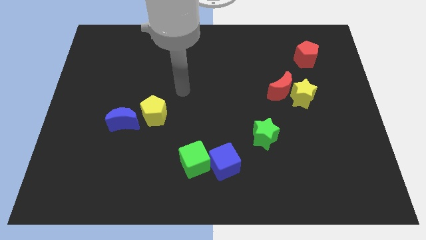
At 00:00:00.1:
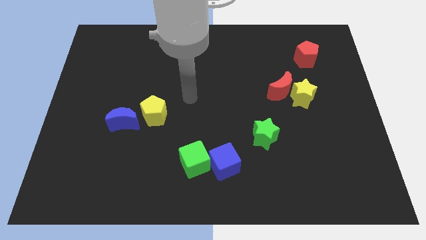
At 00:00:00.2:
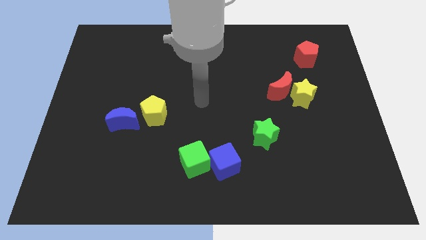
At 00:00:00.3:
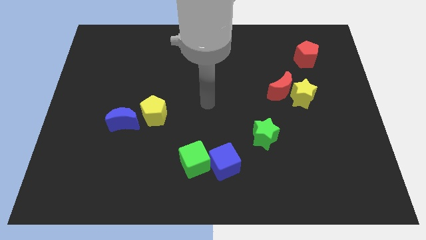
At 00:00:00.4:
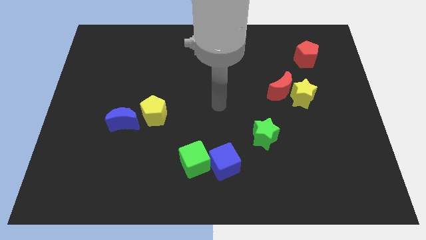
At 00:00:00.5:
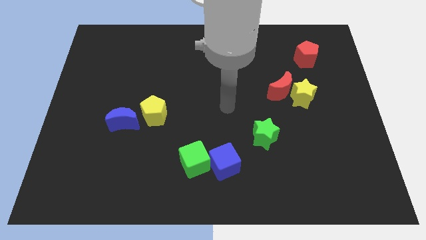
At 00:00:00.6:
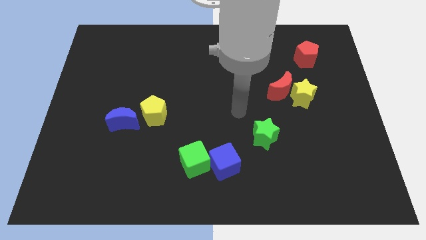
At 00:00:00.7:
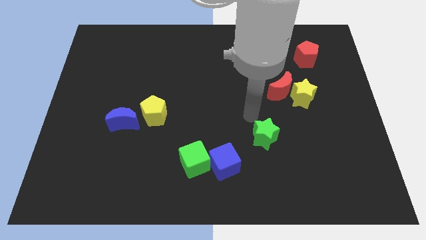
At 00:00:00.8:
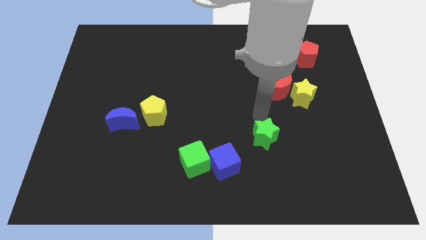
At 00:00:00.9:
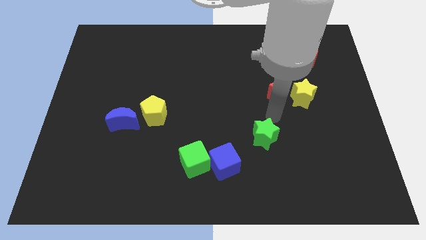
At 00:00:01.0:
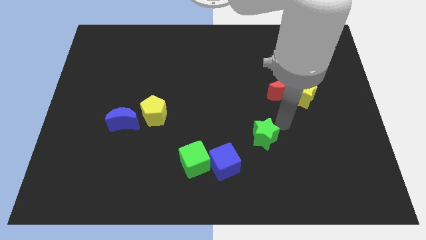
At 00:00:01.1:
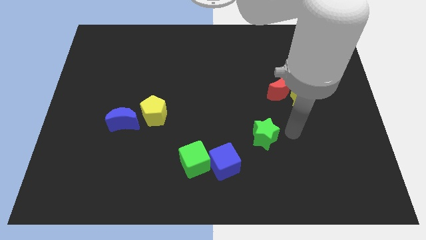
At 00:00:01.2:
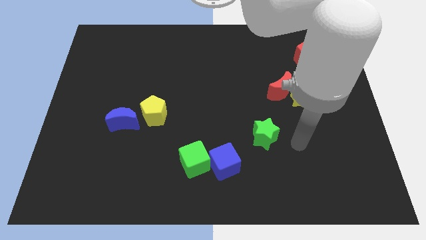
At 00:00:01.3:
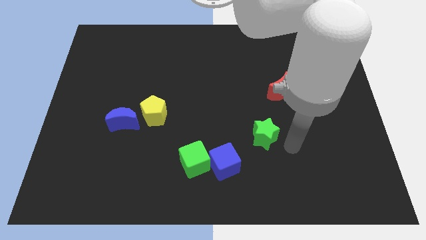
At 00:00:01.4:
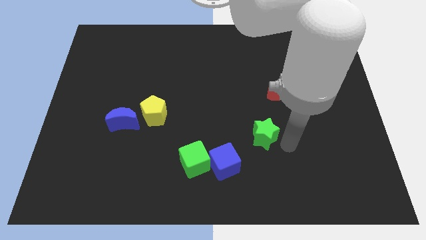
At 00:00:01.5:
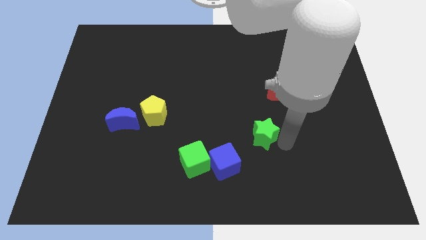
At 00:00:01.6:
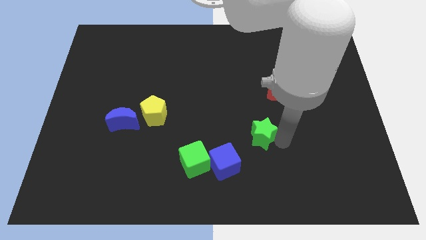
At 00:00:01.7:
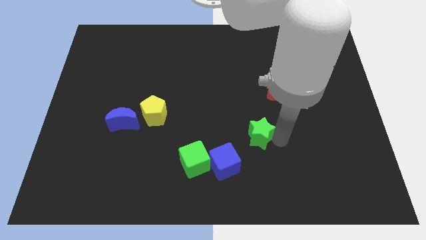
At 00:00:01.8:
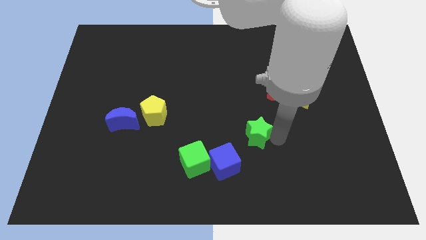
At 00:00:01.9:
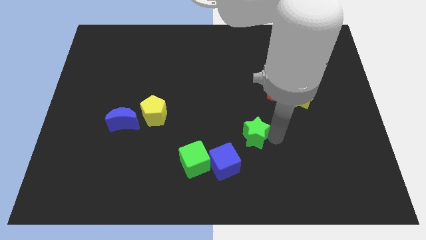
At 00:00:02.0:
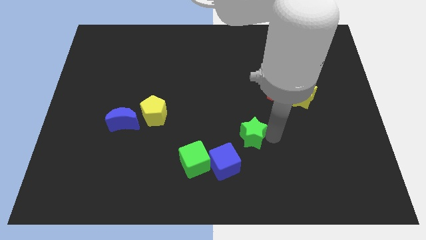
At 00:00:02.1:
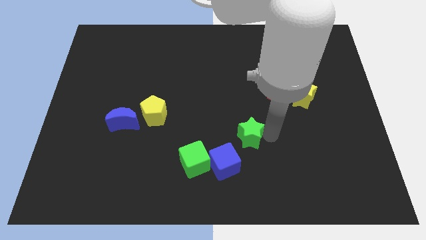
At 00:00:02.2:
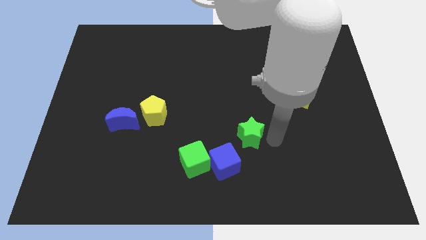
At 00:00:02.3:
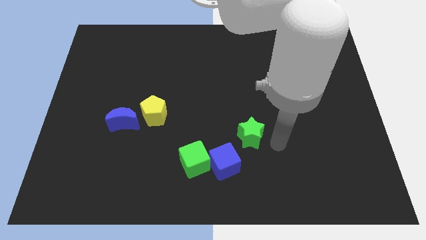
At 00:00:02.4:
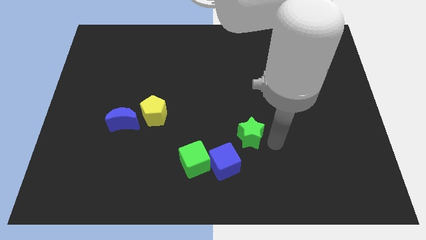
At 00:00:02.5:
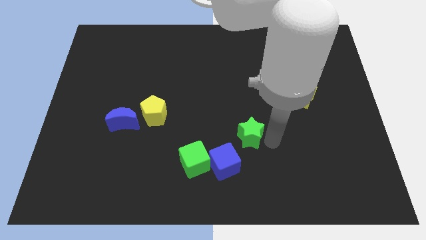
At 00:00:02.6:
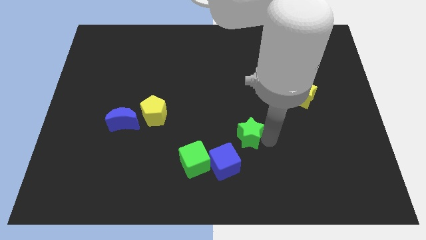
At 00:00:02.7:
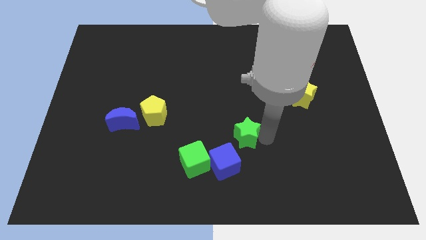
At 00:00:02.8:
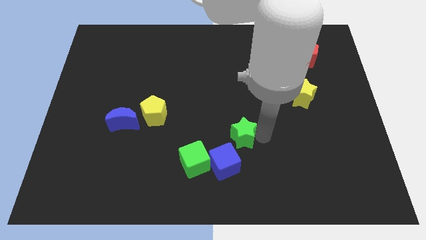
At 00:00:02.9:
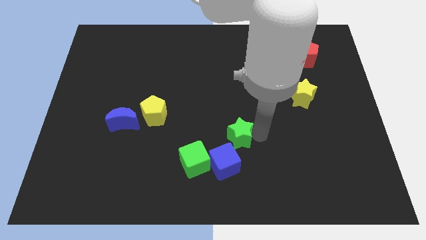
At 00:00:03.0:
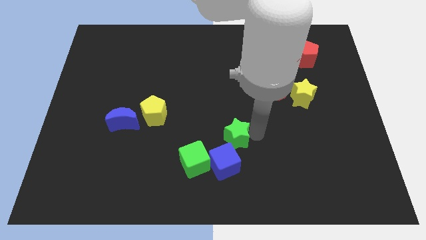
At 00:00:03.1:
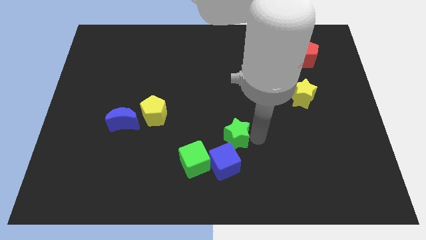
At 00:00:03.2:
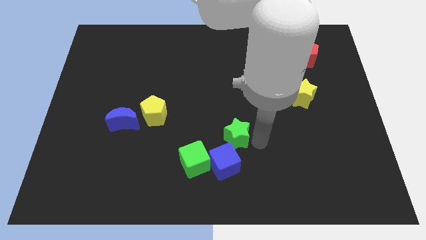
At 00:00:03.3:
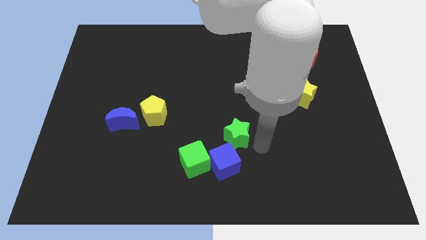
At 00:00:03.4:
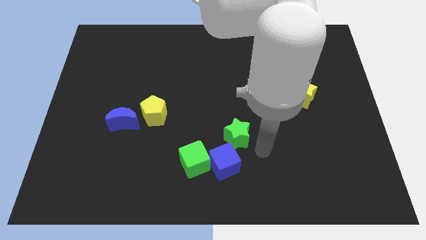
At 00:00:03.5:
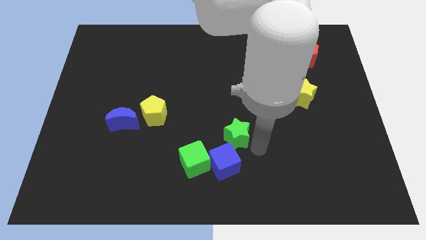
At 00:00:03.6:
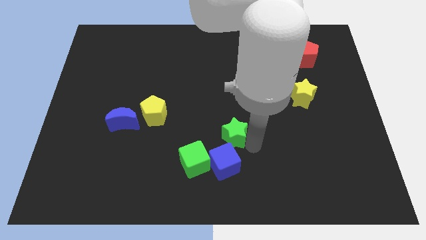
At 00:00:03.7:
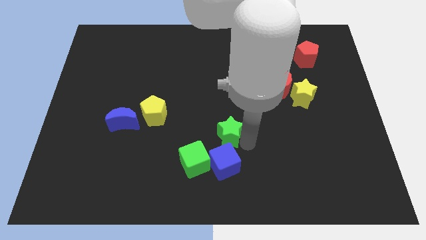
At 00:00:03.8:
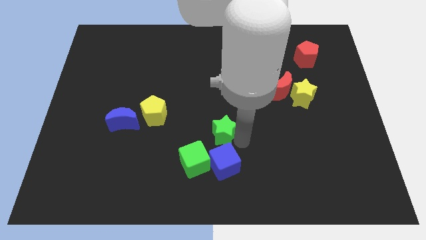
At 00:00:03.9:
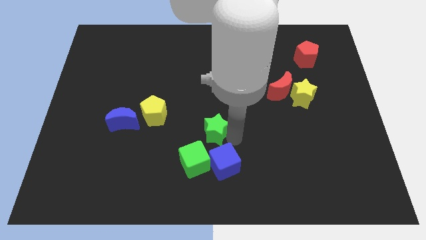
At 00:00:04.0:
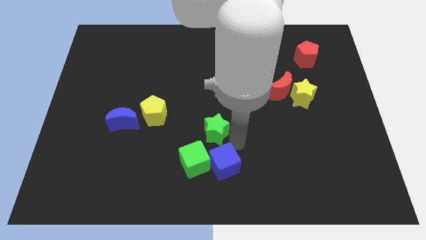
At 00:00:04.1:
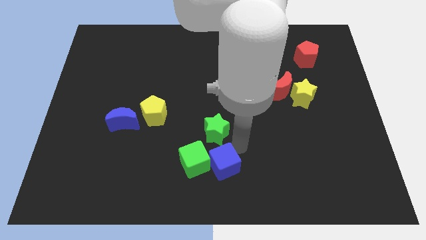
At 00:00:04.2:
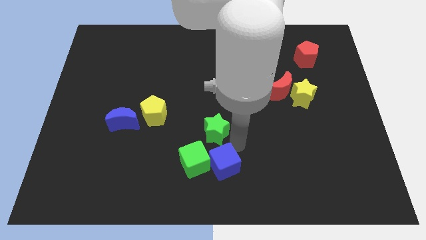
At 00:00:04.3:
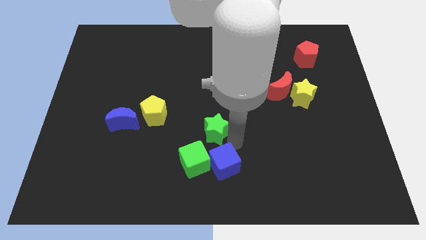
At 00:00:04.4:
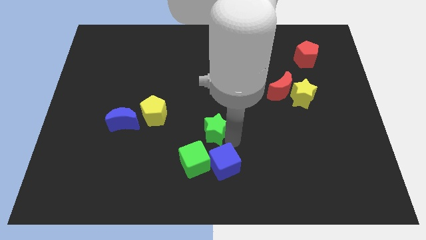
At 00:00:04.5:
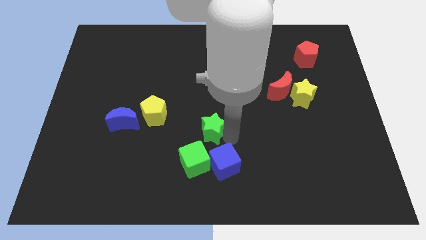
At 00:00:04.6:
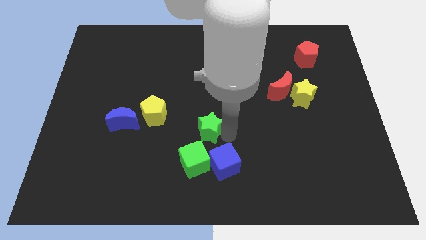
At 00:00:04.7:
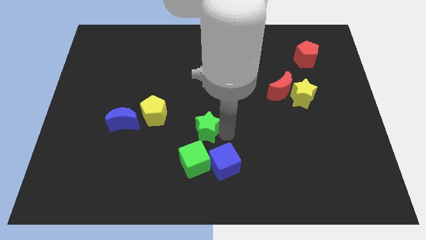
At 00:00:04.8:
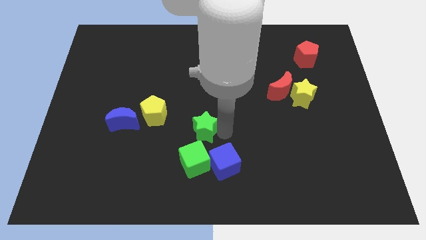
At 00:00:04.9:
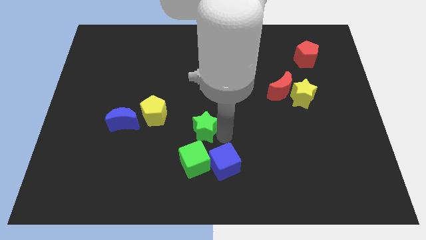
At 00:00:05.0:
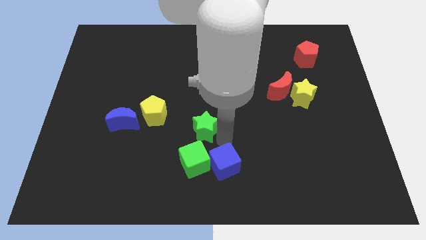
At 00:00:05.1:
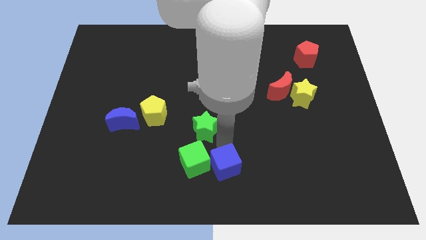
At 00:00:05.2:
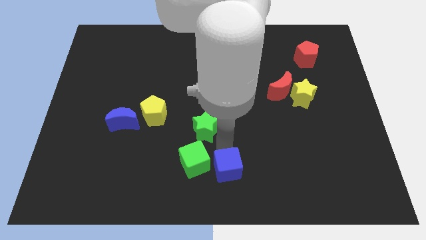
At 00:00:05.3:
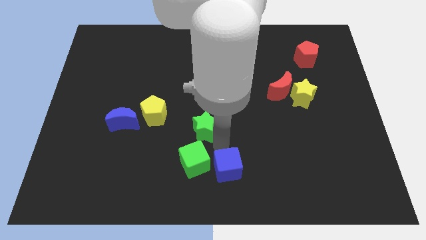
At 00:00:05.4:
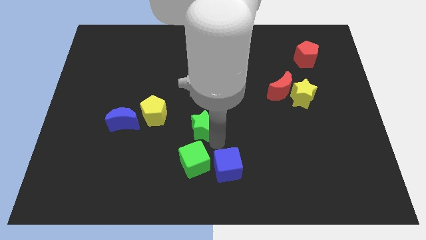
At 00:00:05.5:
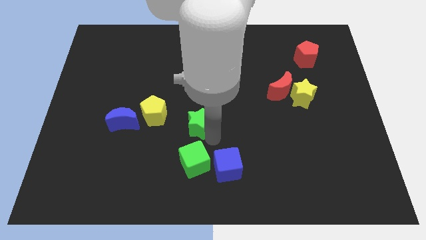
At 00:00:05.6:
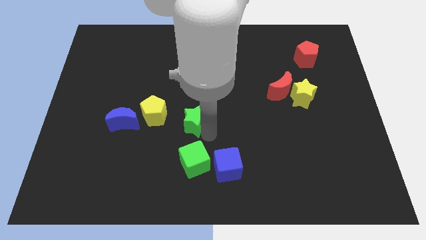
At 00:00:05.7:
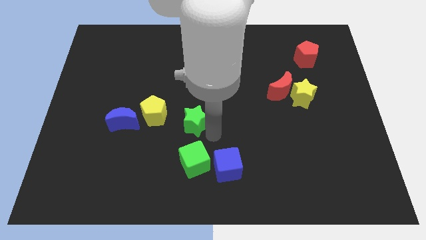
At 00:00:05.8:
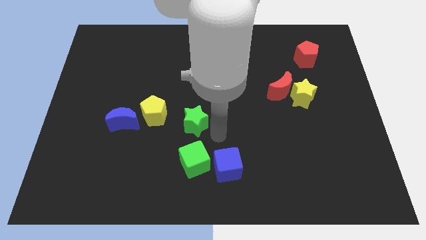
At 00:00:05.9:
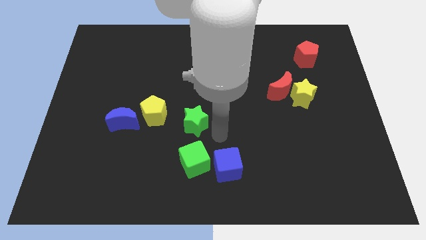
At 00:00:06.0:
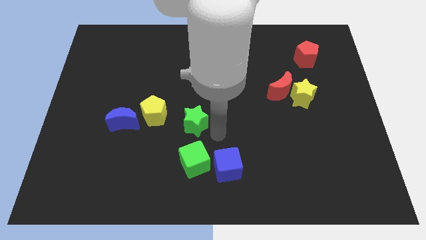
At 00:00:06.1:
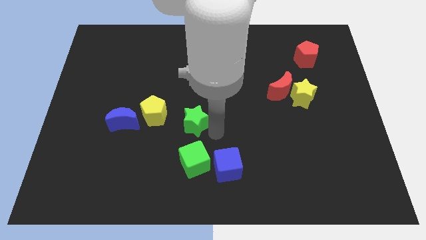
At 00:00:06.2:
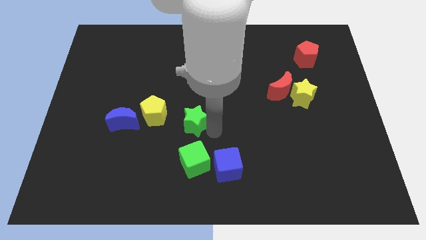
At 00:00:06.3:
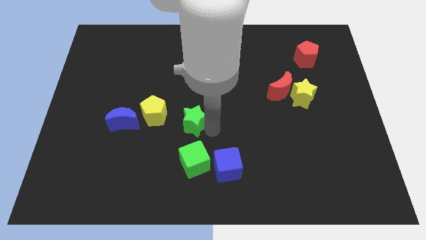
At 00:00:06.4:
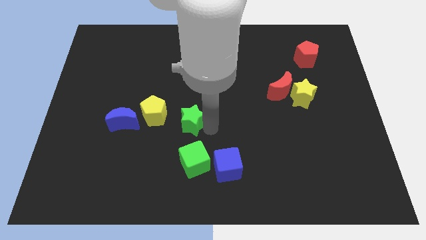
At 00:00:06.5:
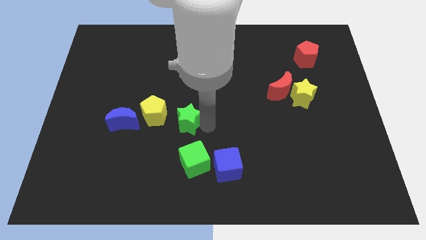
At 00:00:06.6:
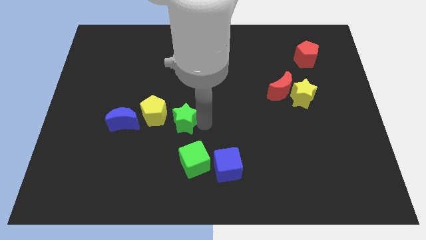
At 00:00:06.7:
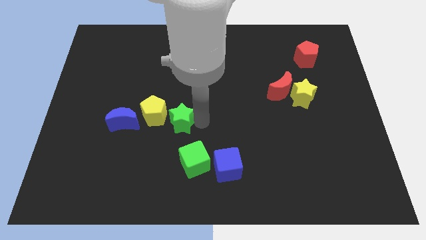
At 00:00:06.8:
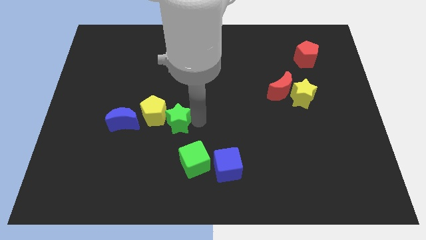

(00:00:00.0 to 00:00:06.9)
put the green star next to the yellow pentagon

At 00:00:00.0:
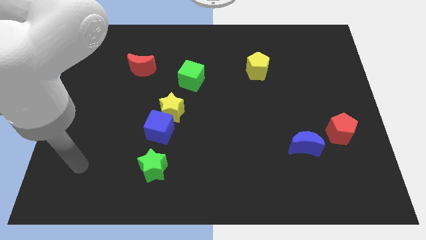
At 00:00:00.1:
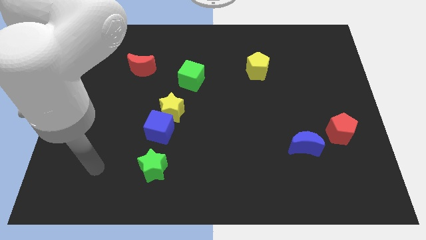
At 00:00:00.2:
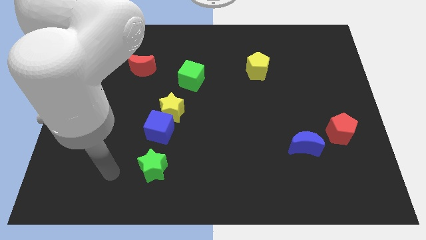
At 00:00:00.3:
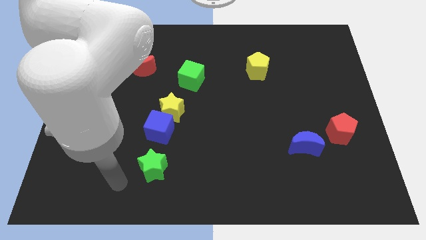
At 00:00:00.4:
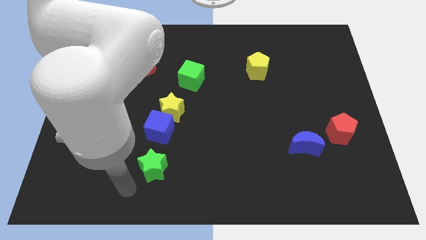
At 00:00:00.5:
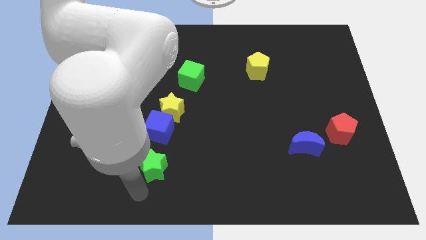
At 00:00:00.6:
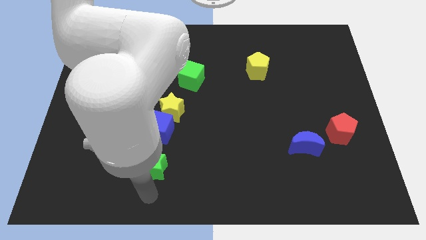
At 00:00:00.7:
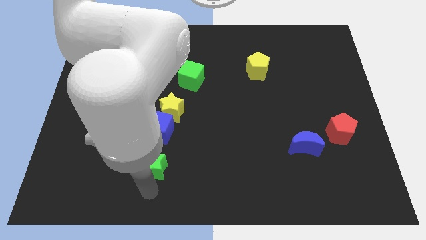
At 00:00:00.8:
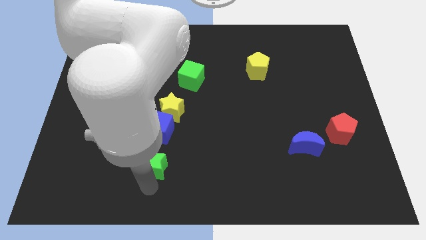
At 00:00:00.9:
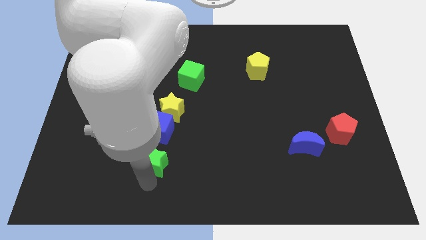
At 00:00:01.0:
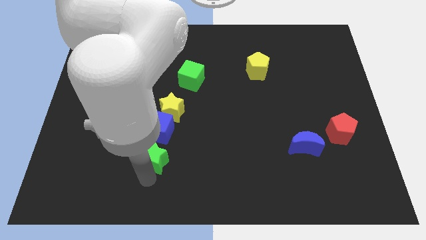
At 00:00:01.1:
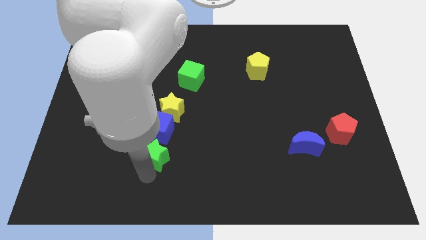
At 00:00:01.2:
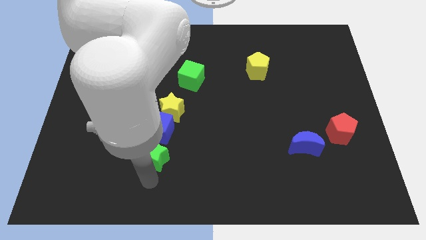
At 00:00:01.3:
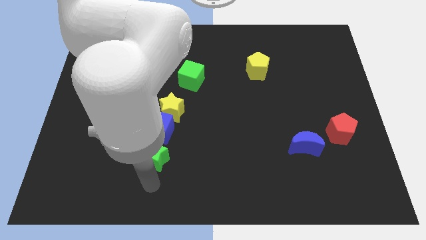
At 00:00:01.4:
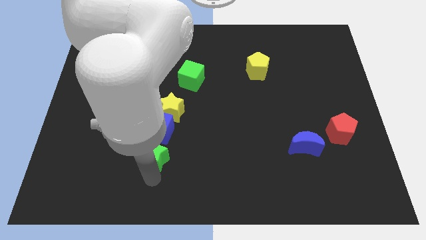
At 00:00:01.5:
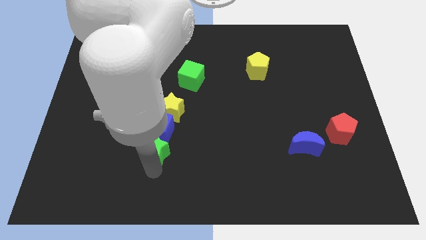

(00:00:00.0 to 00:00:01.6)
slide the green star to the blue cube
